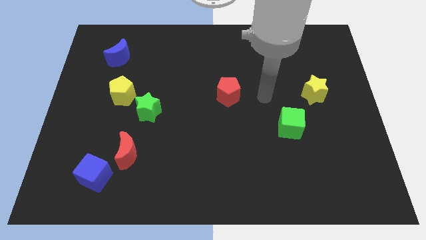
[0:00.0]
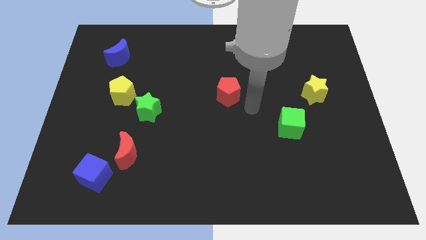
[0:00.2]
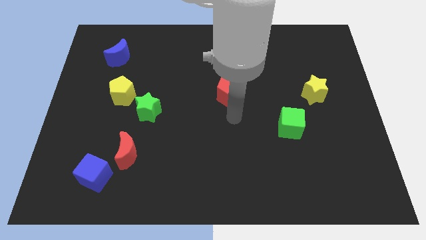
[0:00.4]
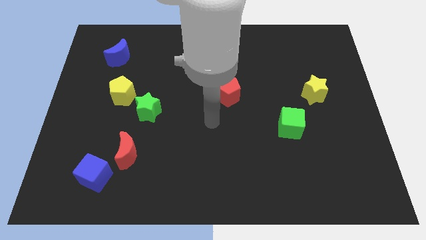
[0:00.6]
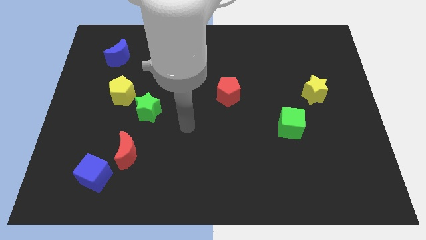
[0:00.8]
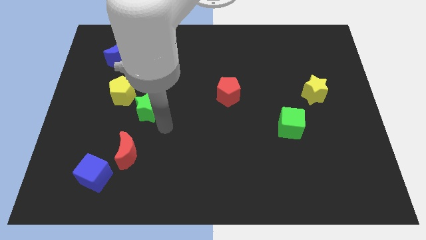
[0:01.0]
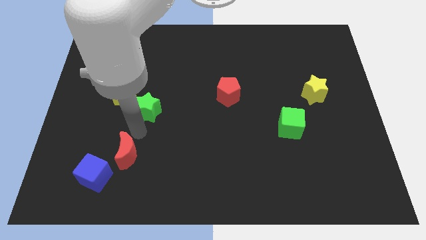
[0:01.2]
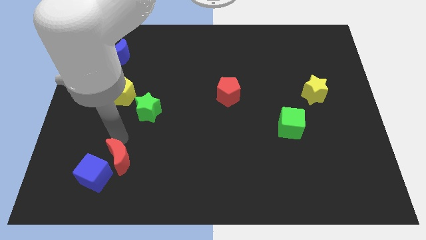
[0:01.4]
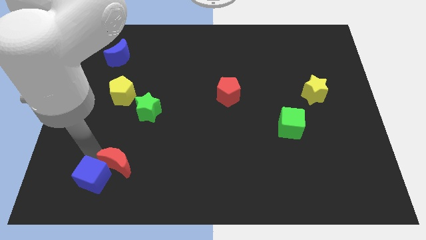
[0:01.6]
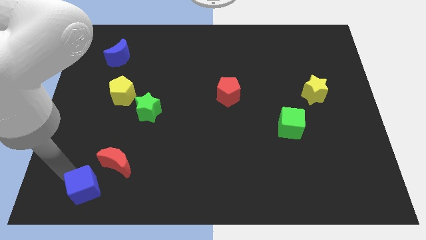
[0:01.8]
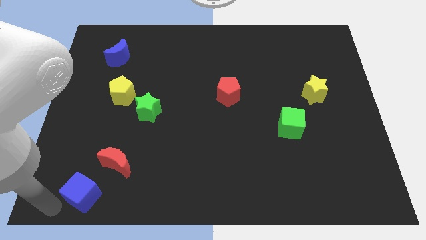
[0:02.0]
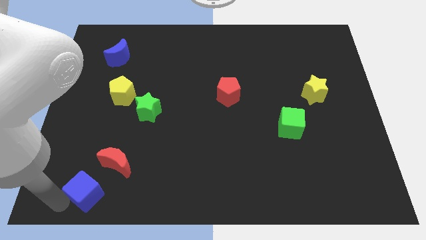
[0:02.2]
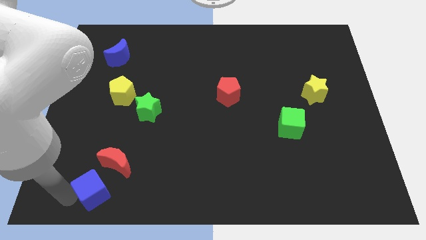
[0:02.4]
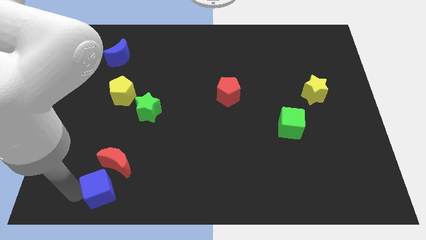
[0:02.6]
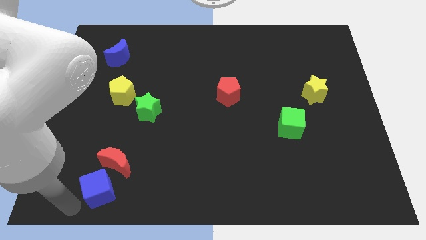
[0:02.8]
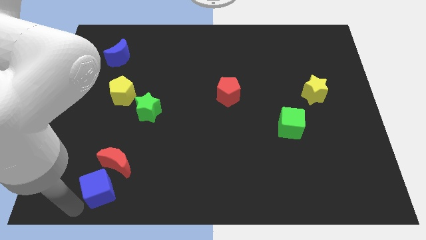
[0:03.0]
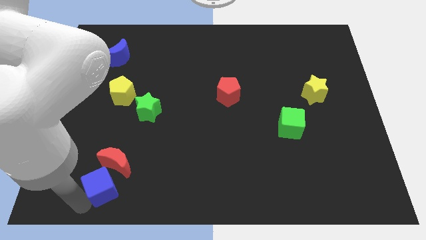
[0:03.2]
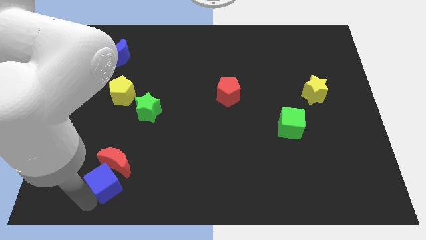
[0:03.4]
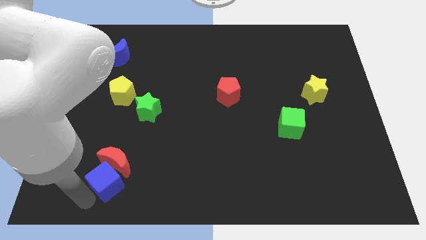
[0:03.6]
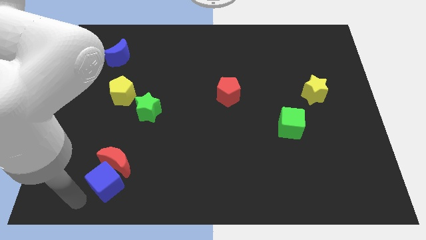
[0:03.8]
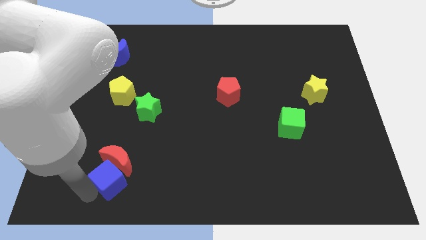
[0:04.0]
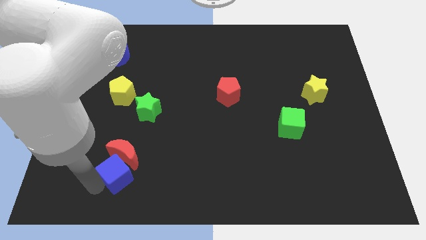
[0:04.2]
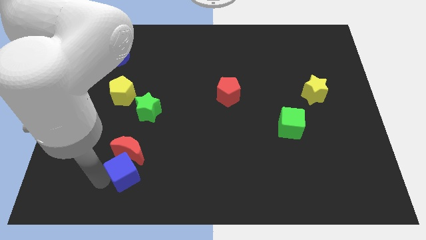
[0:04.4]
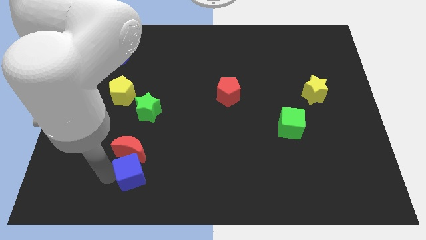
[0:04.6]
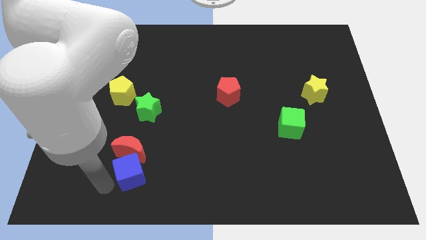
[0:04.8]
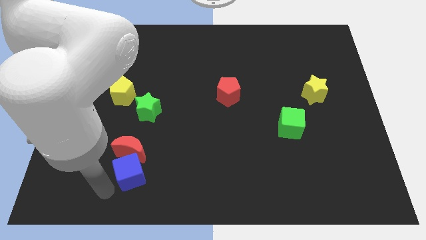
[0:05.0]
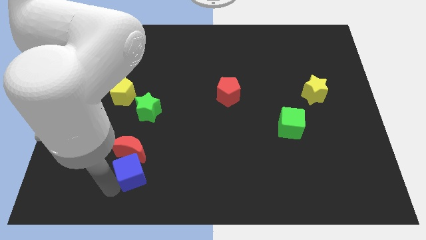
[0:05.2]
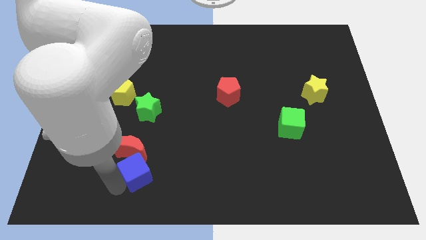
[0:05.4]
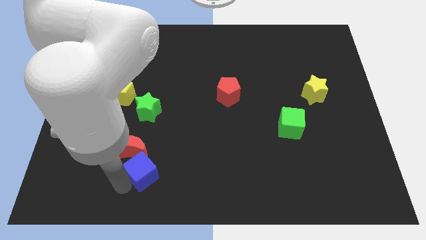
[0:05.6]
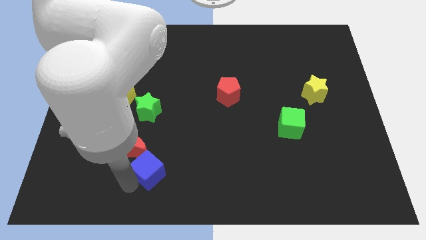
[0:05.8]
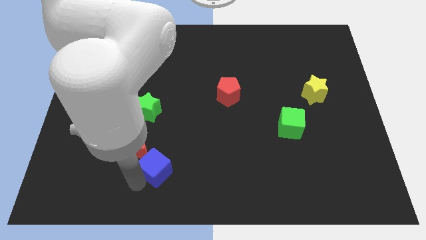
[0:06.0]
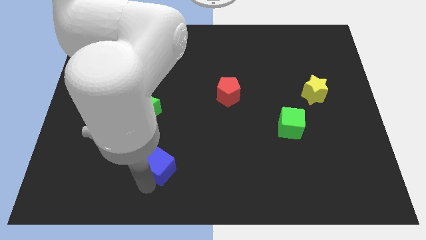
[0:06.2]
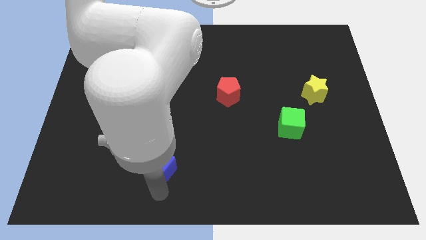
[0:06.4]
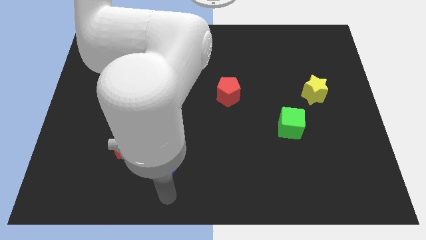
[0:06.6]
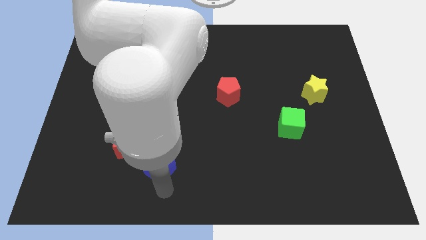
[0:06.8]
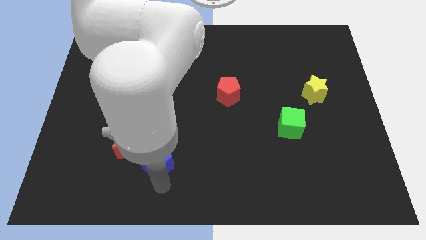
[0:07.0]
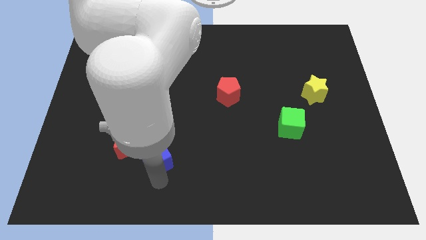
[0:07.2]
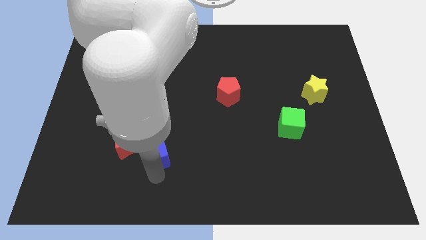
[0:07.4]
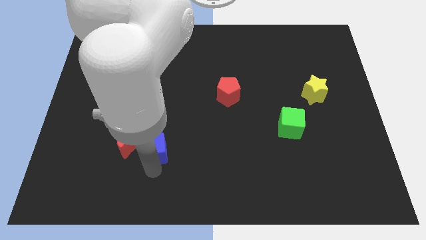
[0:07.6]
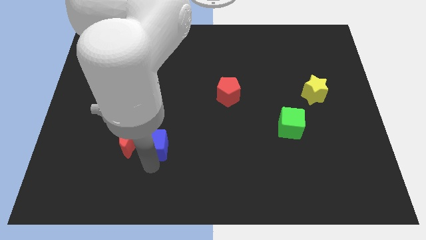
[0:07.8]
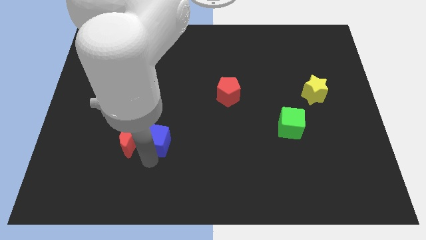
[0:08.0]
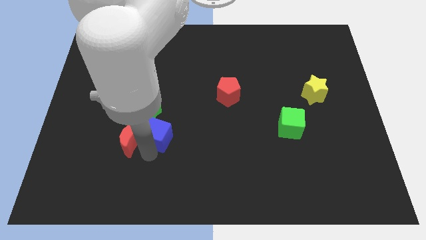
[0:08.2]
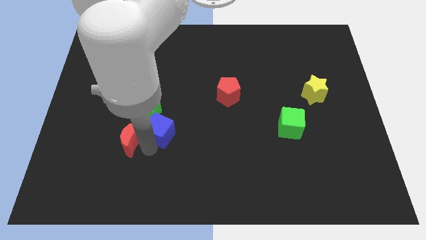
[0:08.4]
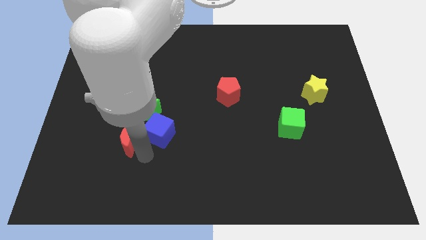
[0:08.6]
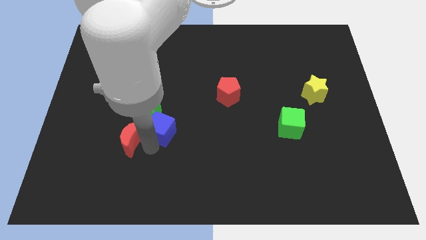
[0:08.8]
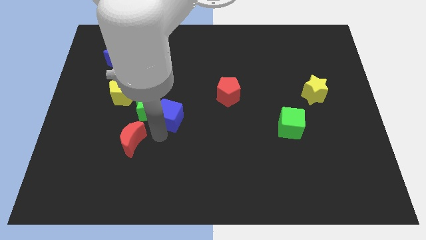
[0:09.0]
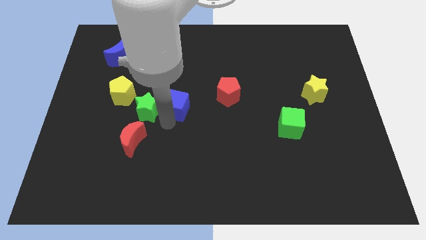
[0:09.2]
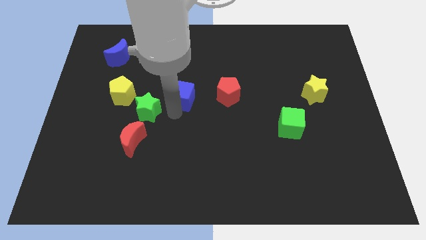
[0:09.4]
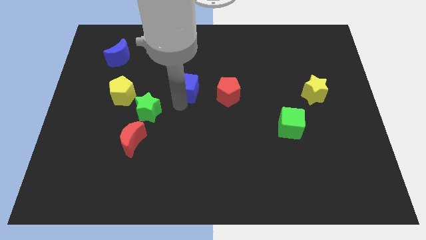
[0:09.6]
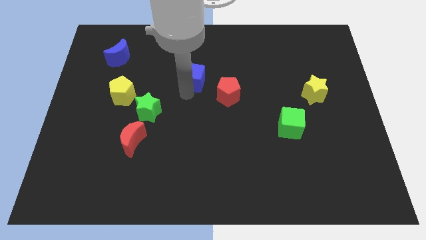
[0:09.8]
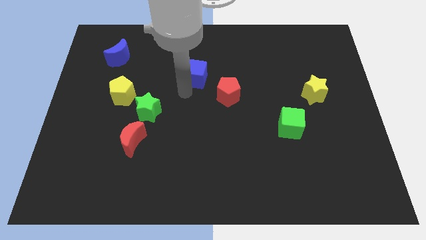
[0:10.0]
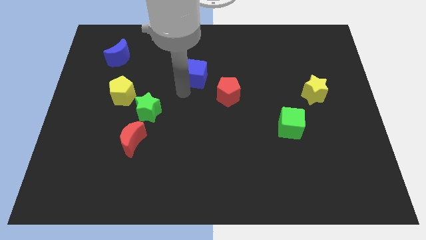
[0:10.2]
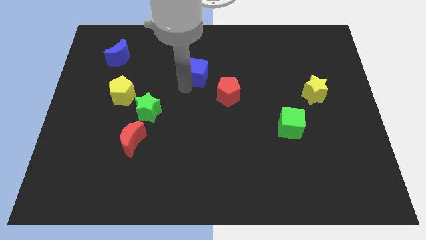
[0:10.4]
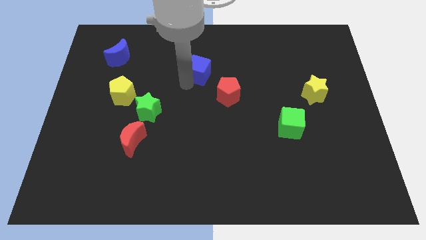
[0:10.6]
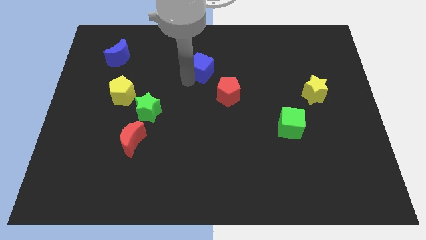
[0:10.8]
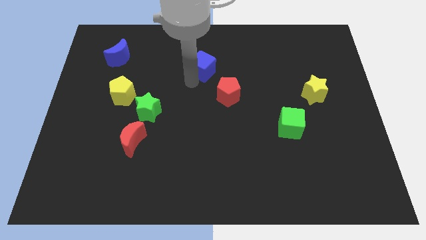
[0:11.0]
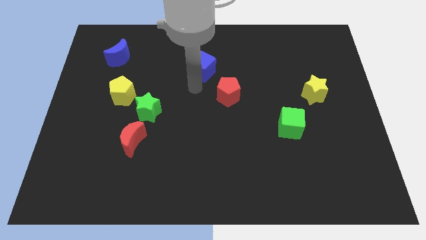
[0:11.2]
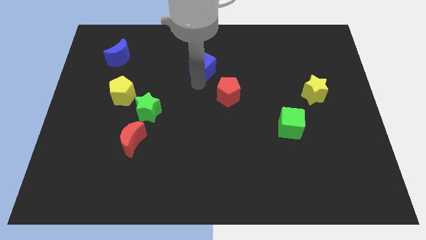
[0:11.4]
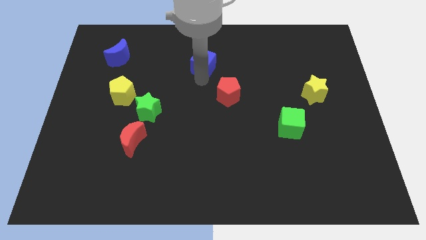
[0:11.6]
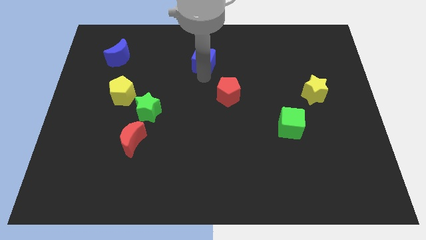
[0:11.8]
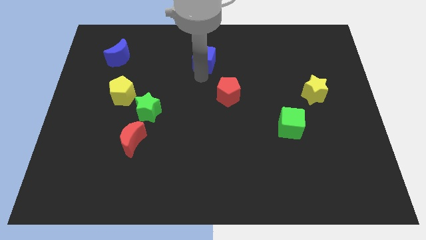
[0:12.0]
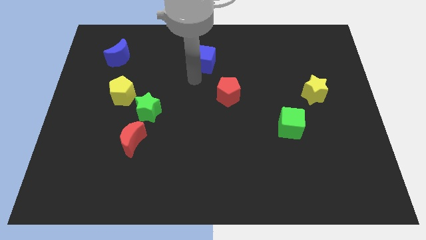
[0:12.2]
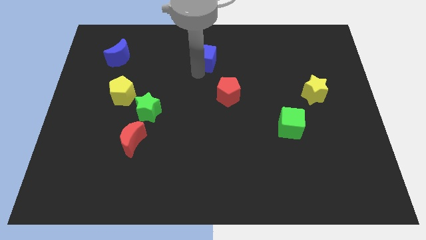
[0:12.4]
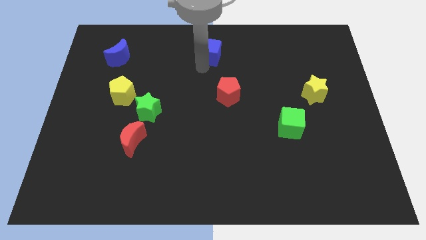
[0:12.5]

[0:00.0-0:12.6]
move the blue cube to the top side

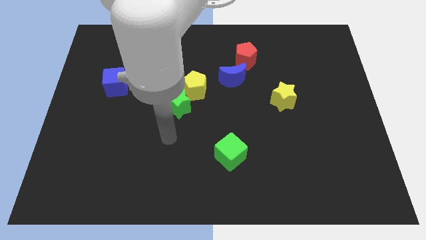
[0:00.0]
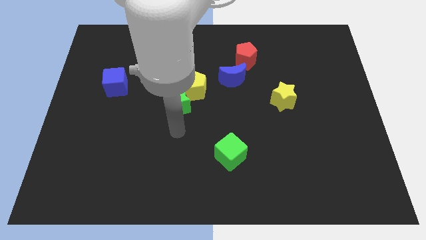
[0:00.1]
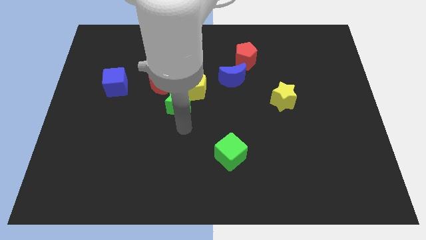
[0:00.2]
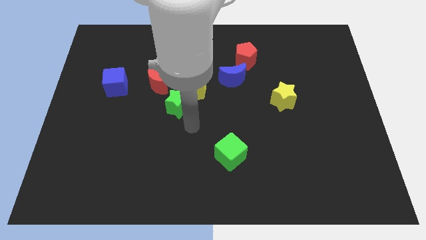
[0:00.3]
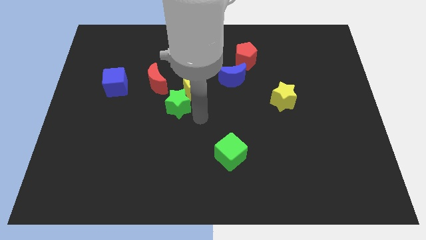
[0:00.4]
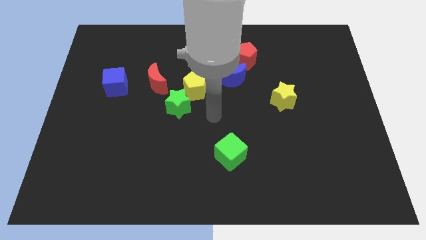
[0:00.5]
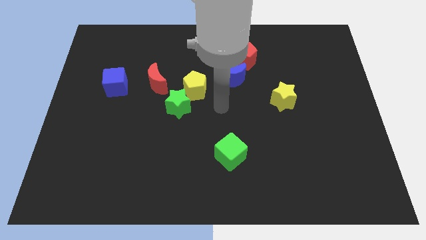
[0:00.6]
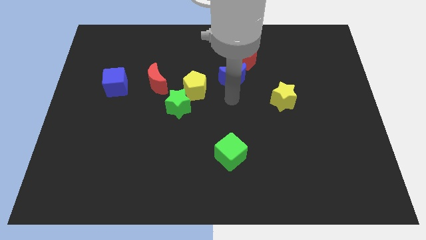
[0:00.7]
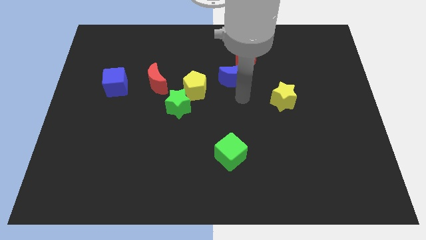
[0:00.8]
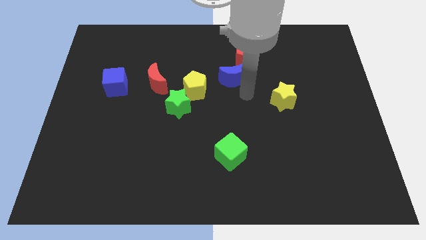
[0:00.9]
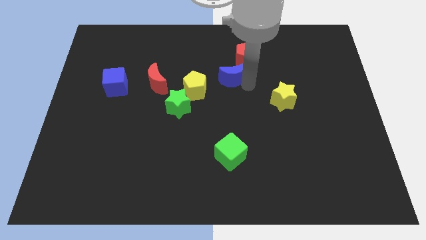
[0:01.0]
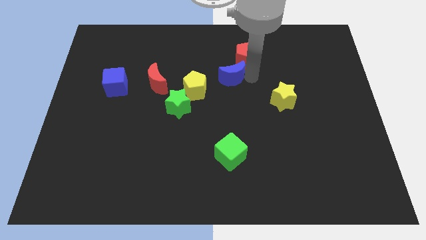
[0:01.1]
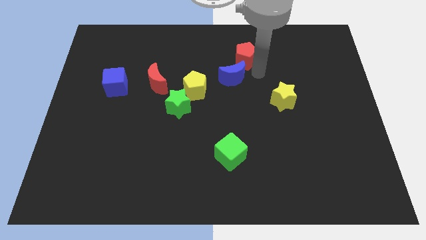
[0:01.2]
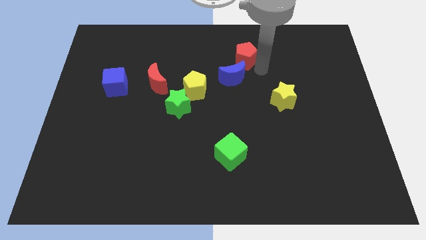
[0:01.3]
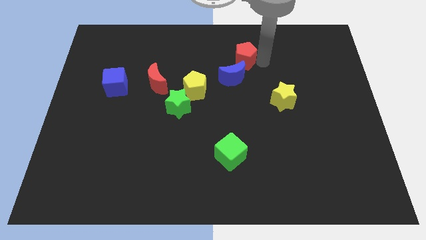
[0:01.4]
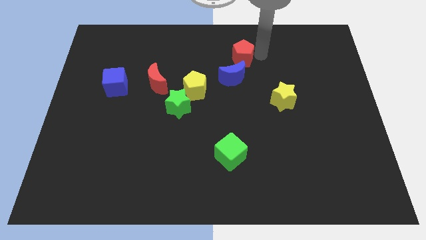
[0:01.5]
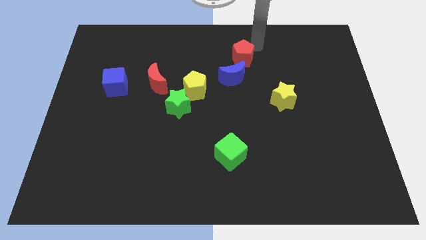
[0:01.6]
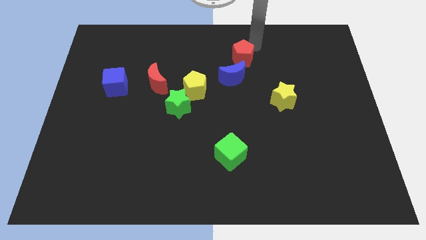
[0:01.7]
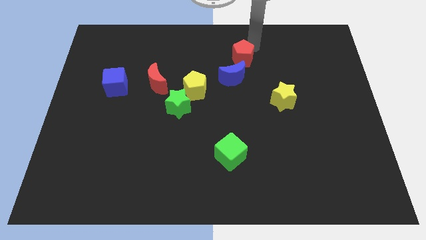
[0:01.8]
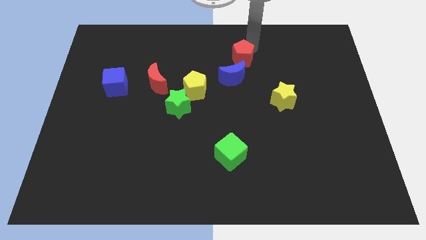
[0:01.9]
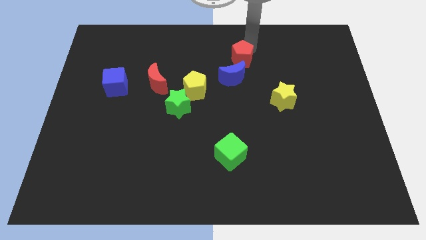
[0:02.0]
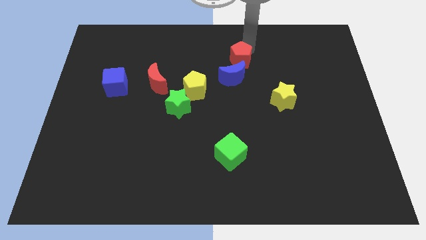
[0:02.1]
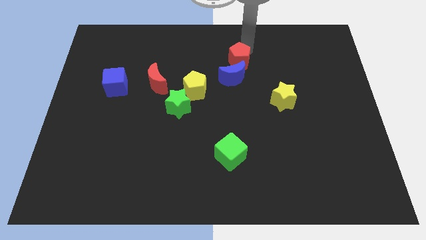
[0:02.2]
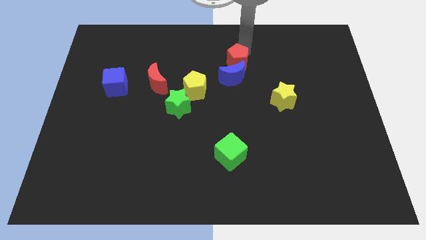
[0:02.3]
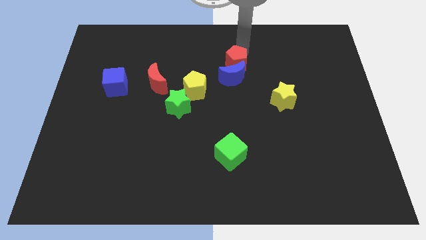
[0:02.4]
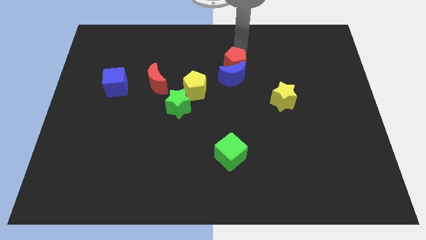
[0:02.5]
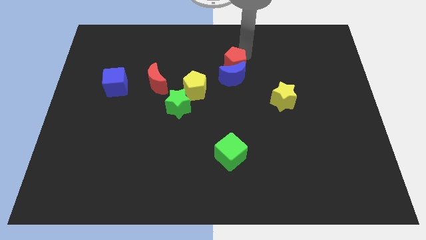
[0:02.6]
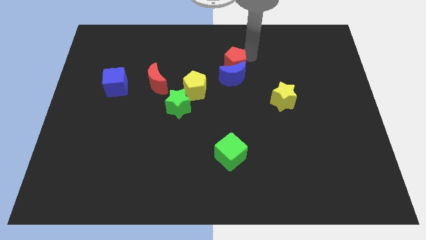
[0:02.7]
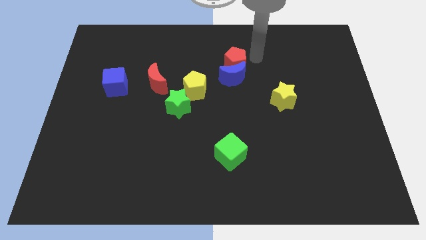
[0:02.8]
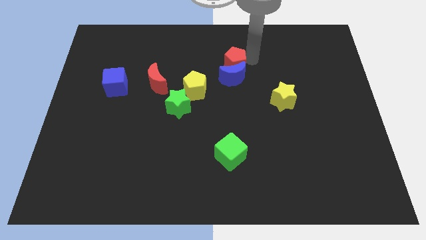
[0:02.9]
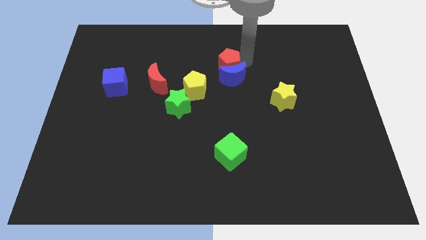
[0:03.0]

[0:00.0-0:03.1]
move the red pentagon to the center
